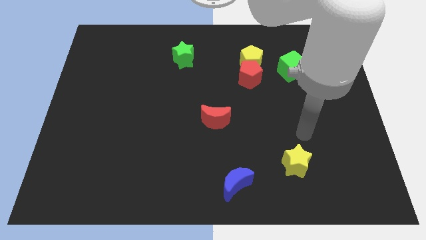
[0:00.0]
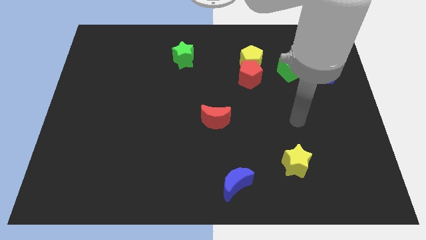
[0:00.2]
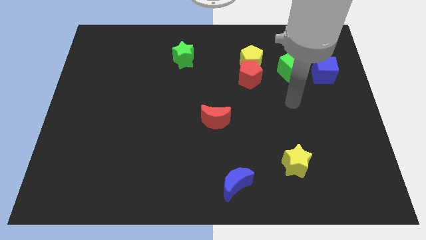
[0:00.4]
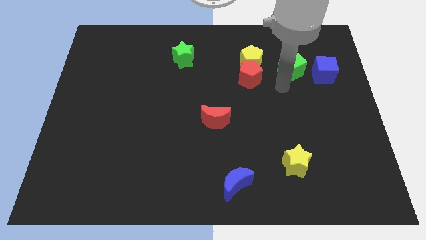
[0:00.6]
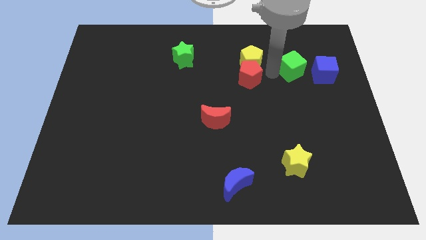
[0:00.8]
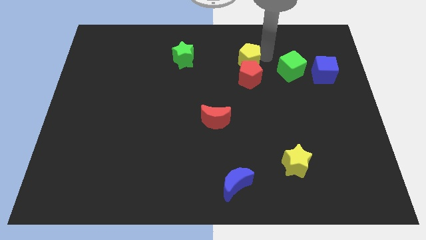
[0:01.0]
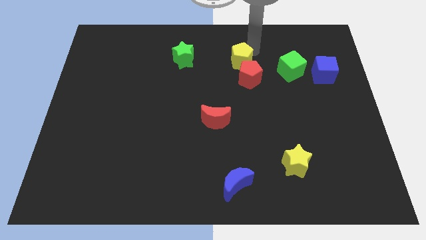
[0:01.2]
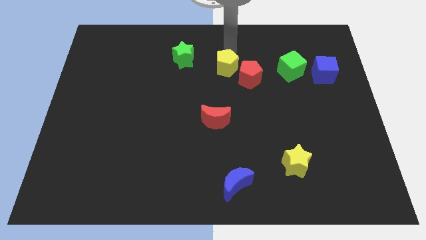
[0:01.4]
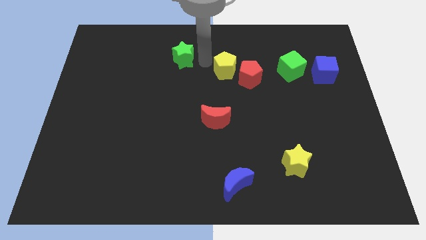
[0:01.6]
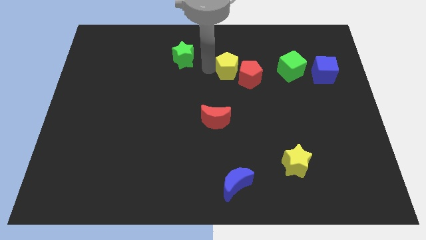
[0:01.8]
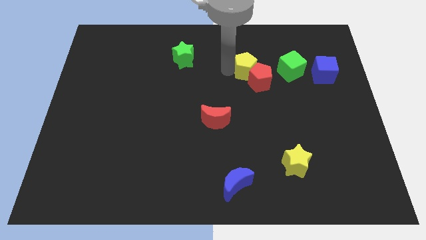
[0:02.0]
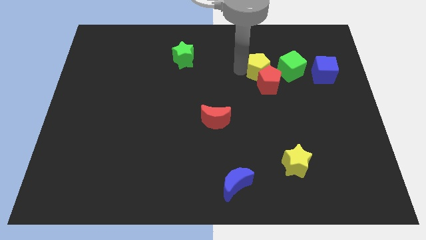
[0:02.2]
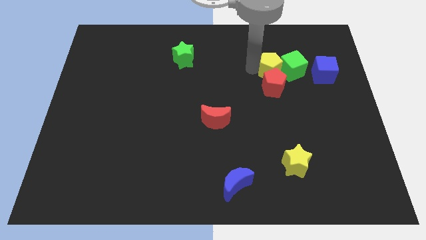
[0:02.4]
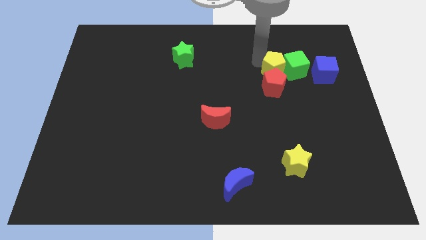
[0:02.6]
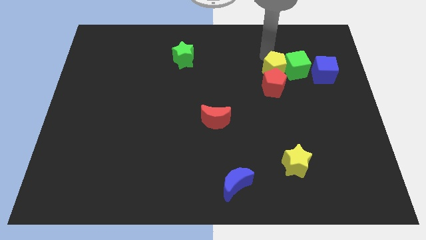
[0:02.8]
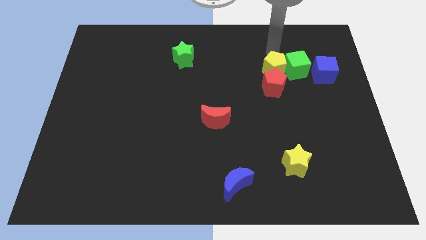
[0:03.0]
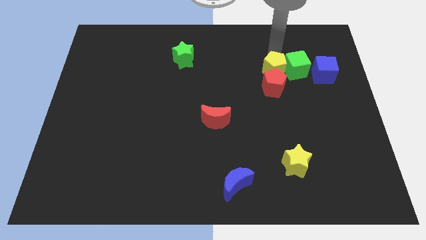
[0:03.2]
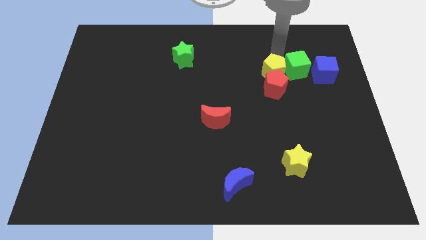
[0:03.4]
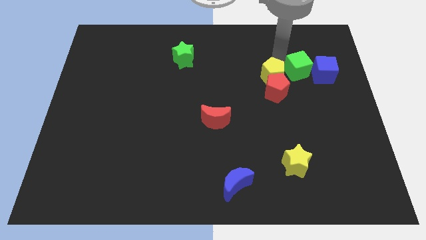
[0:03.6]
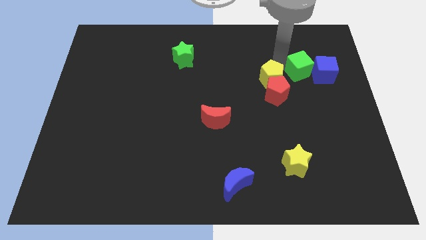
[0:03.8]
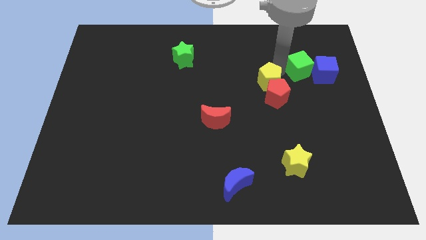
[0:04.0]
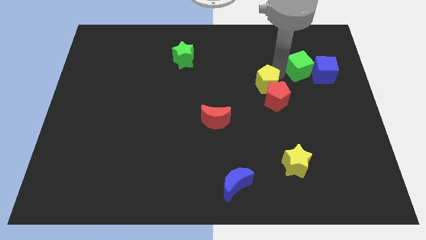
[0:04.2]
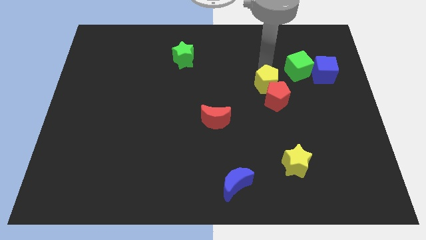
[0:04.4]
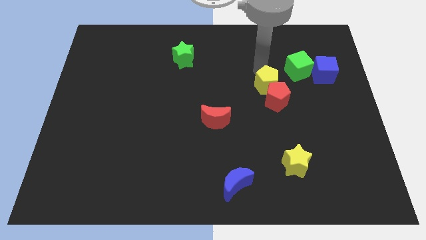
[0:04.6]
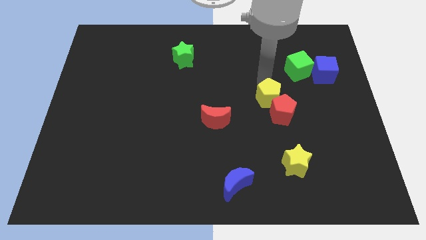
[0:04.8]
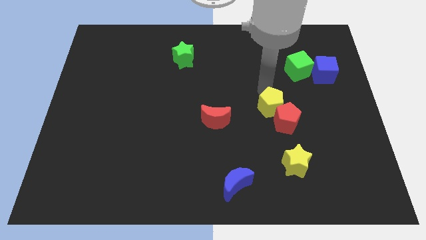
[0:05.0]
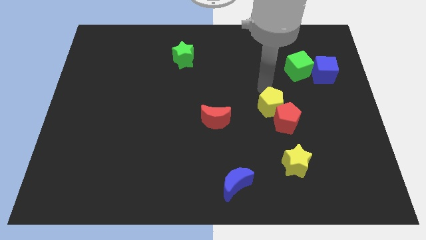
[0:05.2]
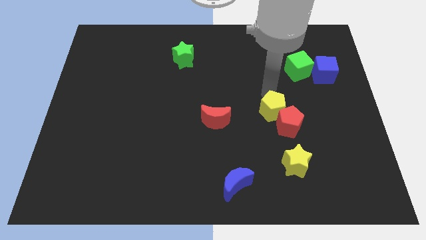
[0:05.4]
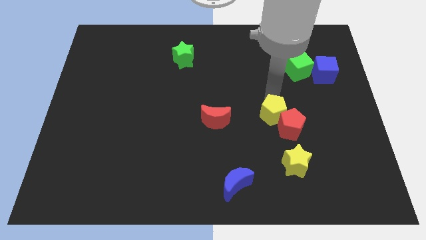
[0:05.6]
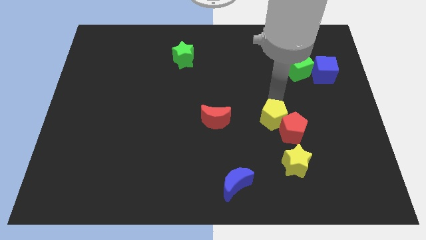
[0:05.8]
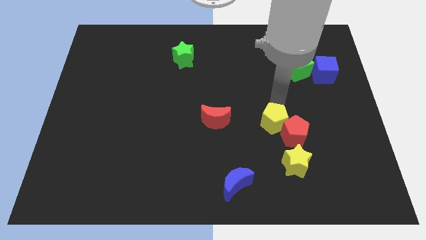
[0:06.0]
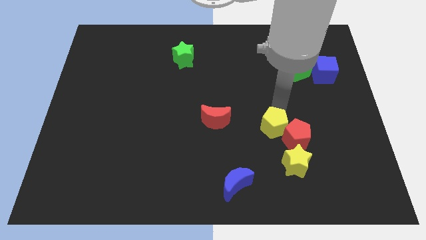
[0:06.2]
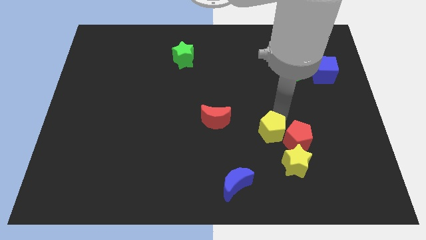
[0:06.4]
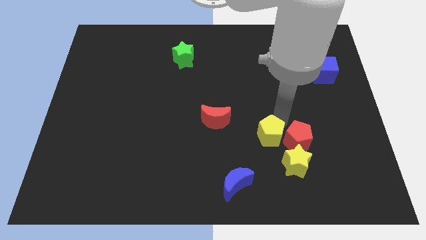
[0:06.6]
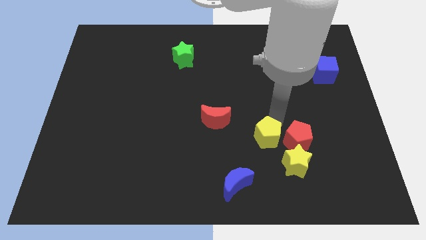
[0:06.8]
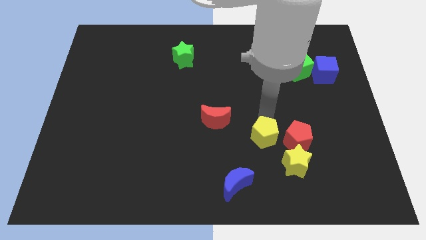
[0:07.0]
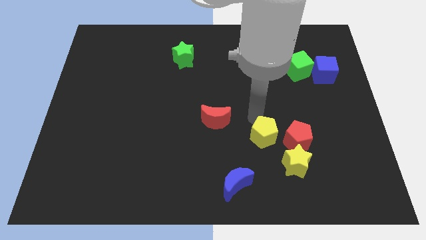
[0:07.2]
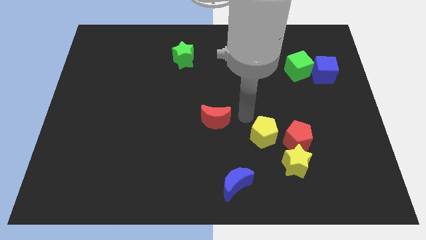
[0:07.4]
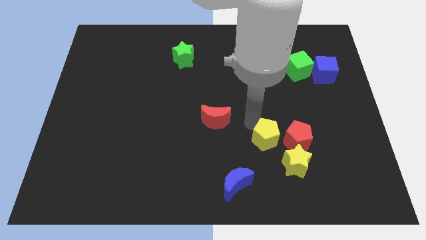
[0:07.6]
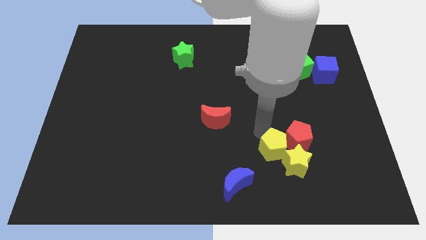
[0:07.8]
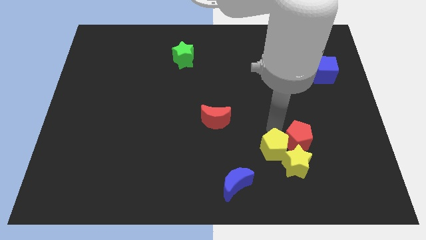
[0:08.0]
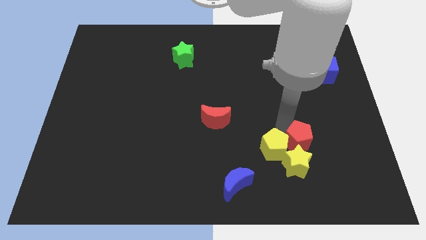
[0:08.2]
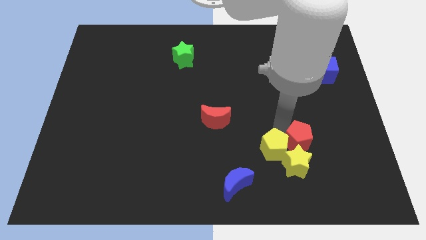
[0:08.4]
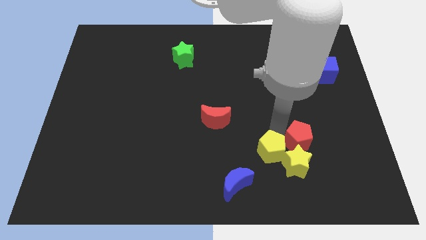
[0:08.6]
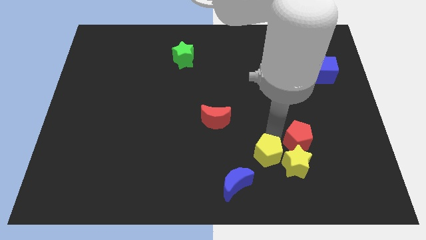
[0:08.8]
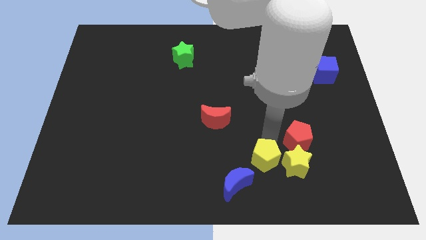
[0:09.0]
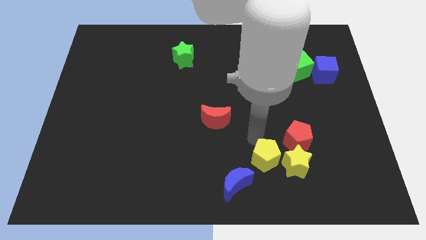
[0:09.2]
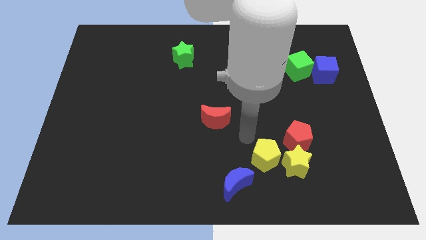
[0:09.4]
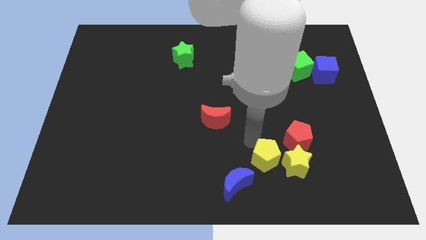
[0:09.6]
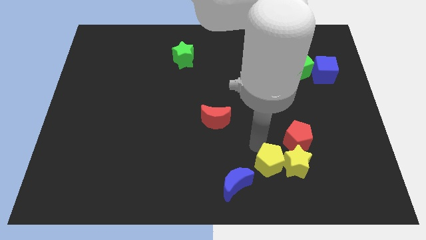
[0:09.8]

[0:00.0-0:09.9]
put the yellow pentagon to the right of the blue moon

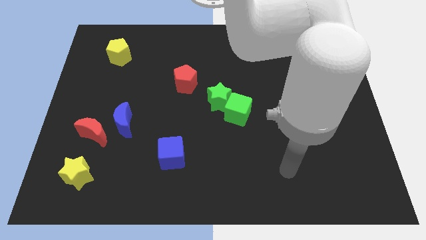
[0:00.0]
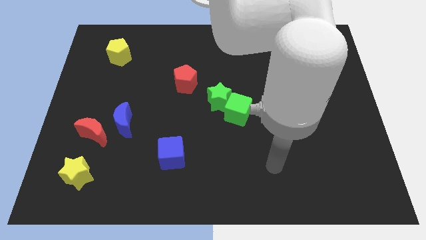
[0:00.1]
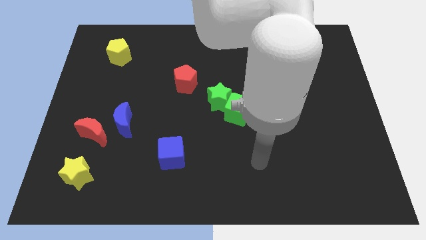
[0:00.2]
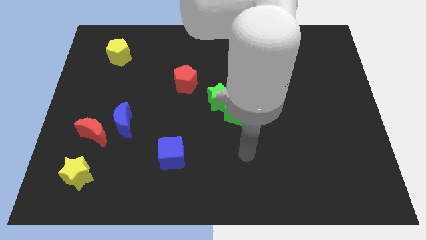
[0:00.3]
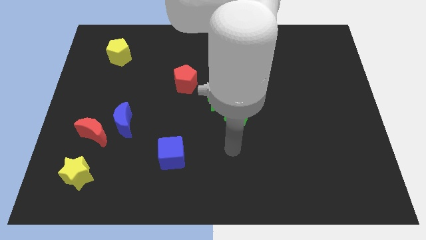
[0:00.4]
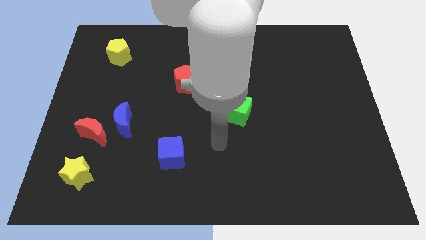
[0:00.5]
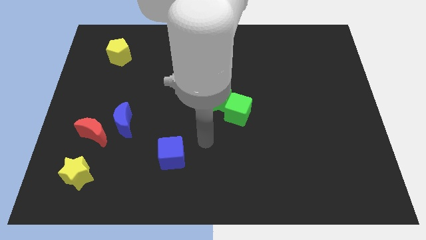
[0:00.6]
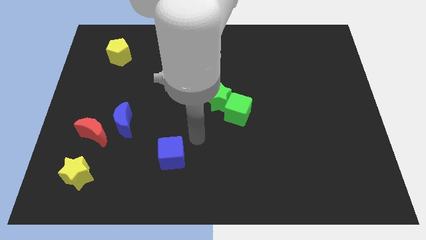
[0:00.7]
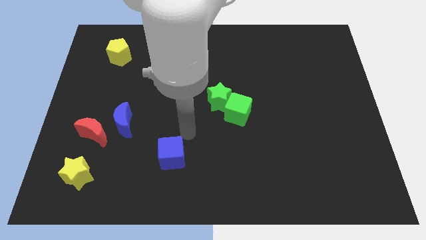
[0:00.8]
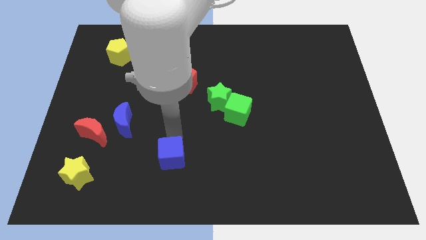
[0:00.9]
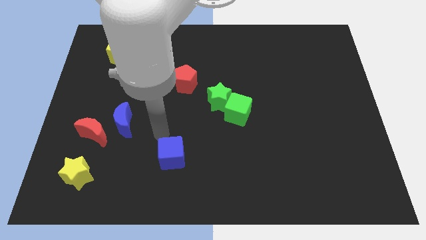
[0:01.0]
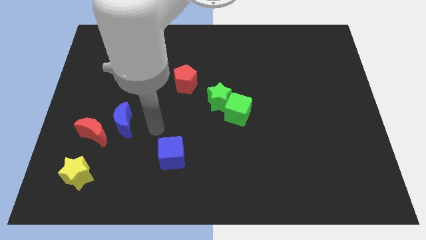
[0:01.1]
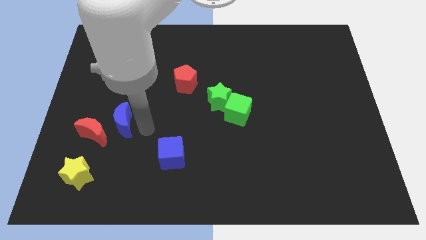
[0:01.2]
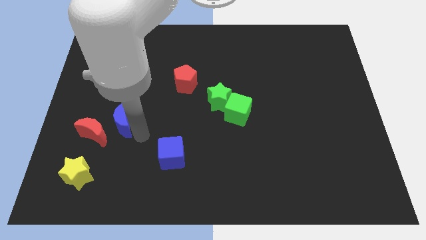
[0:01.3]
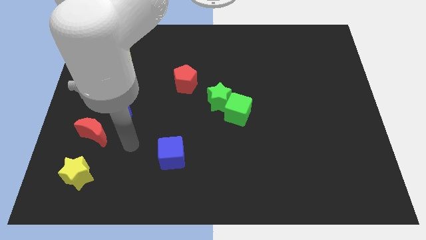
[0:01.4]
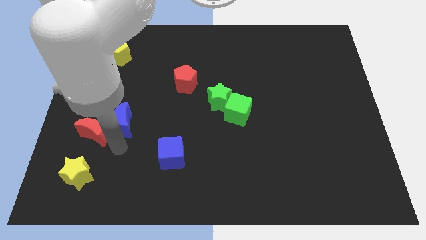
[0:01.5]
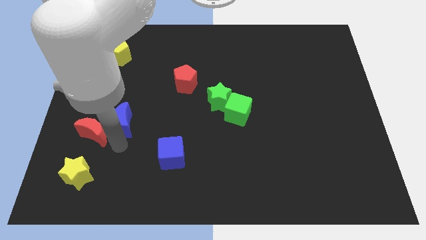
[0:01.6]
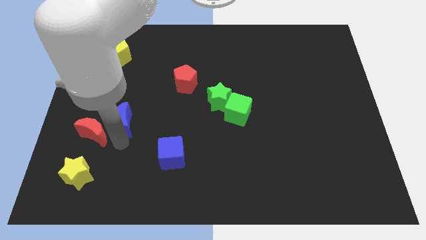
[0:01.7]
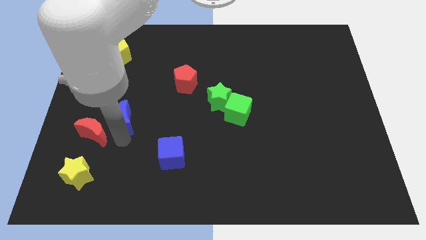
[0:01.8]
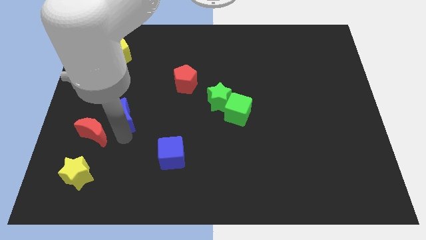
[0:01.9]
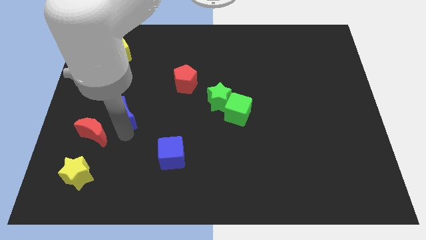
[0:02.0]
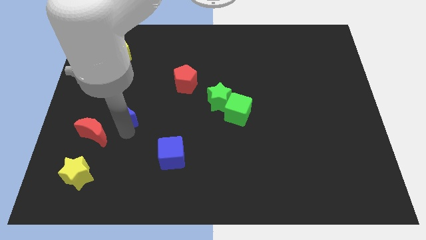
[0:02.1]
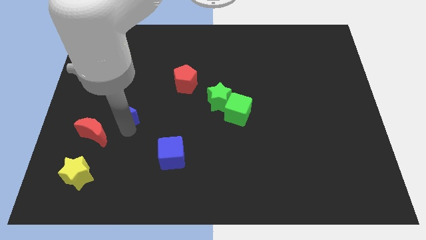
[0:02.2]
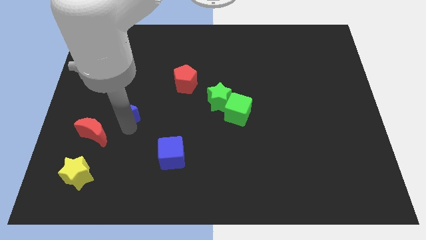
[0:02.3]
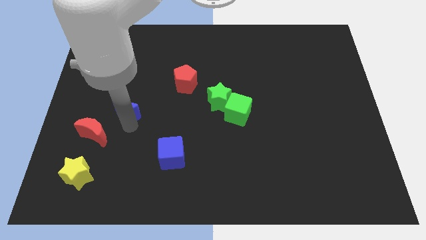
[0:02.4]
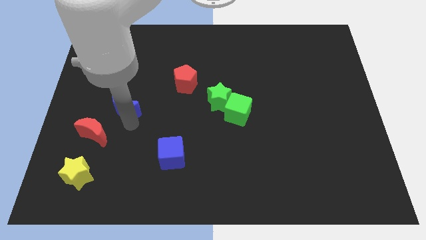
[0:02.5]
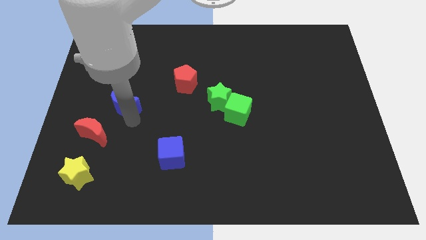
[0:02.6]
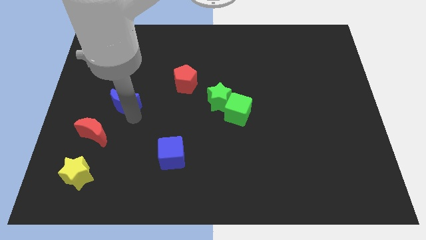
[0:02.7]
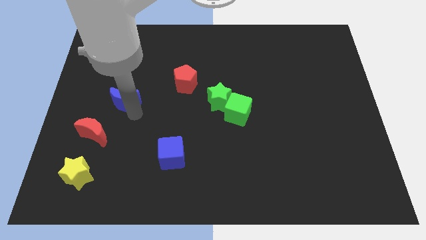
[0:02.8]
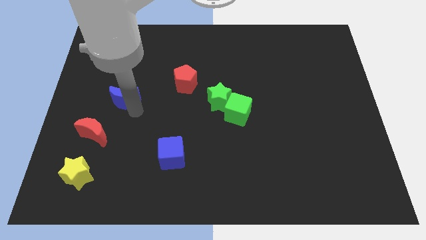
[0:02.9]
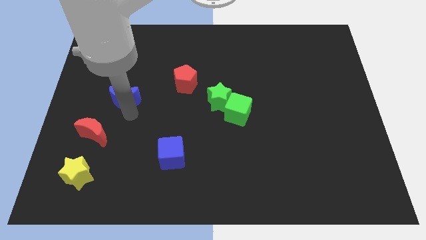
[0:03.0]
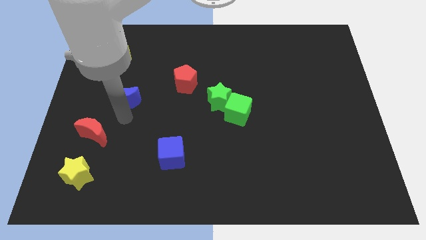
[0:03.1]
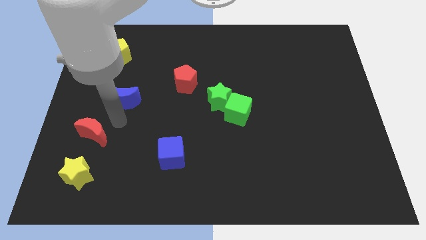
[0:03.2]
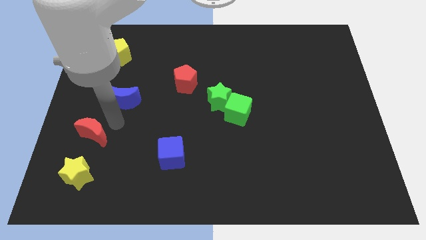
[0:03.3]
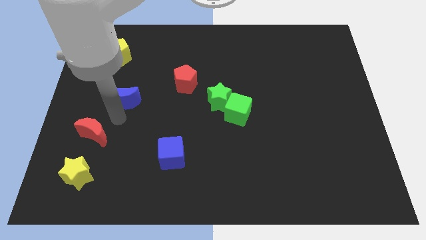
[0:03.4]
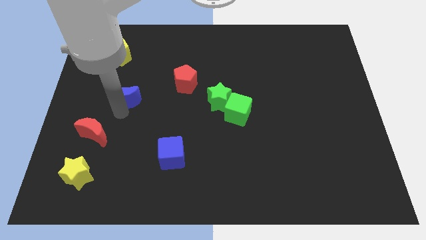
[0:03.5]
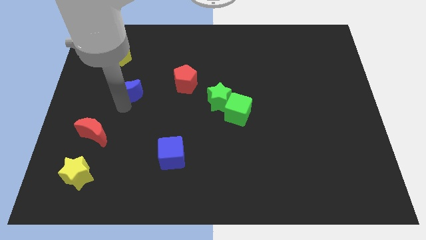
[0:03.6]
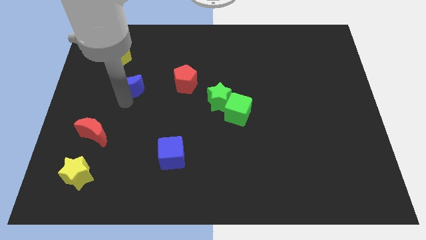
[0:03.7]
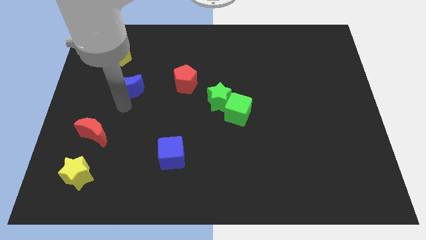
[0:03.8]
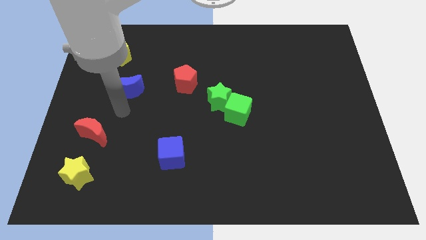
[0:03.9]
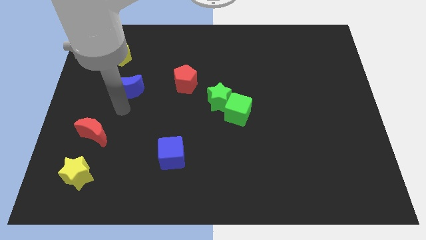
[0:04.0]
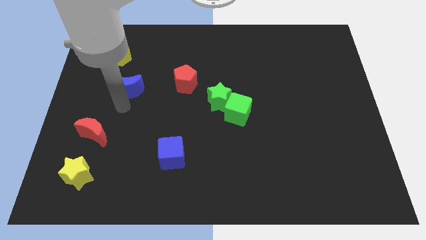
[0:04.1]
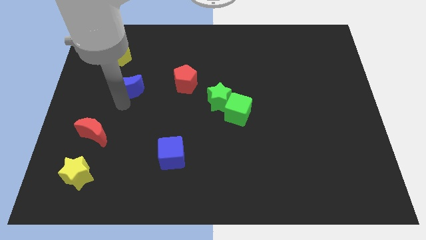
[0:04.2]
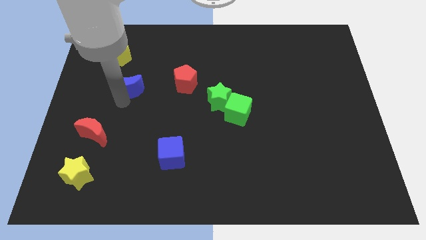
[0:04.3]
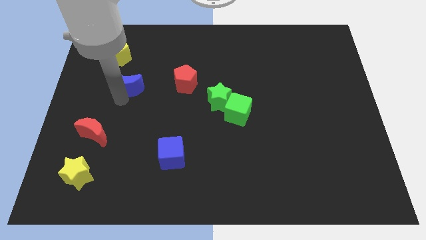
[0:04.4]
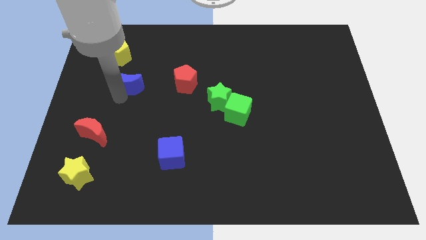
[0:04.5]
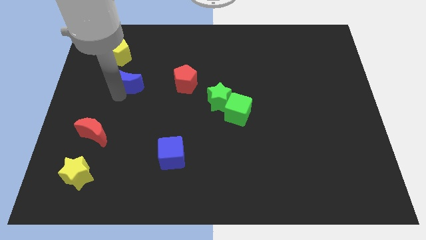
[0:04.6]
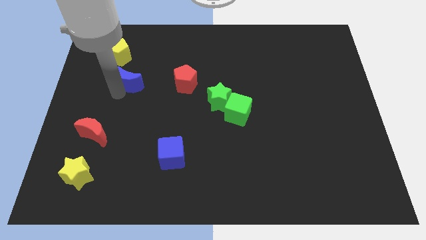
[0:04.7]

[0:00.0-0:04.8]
move the blue moon to the bottom right of the yellow pentagon
